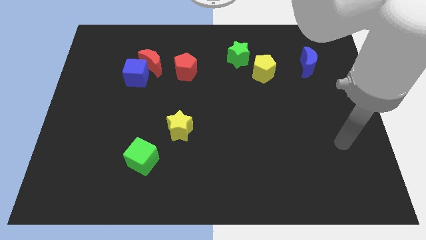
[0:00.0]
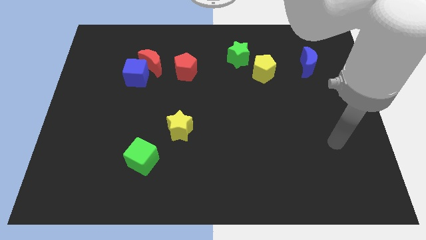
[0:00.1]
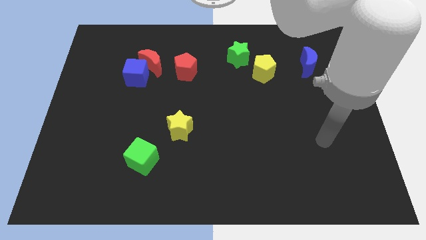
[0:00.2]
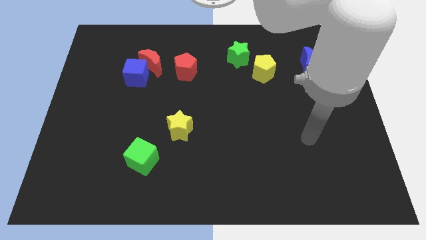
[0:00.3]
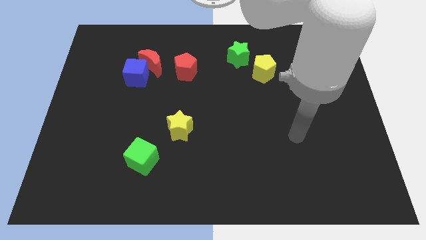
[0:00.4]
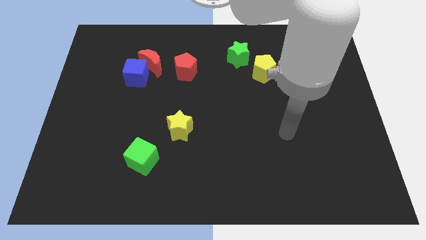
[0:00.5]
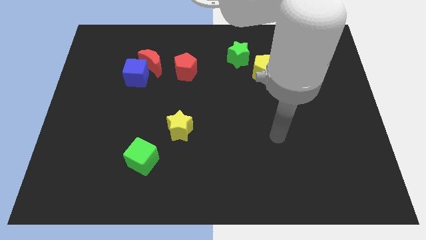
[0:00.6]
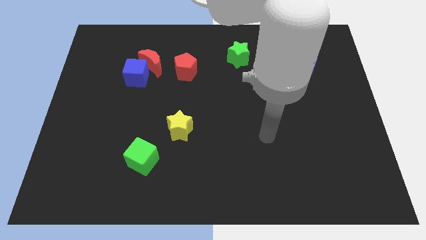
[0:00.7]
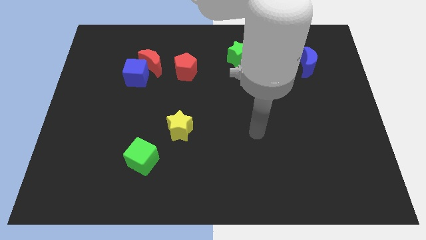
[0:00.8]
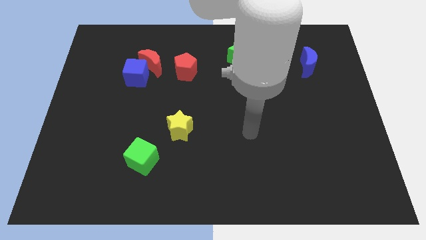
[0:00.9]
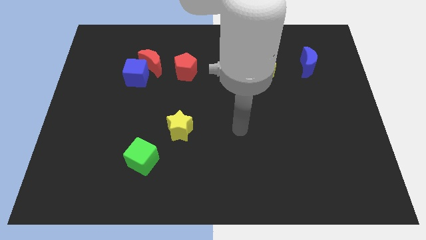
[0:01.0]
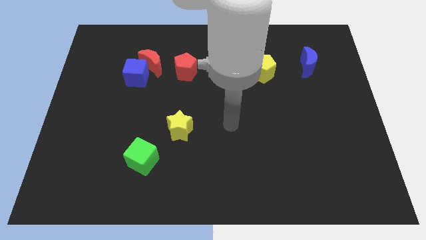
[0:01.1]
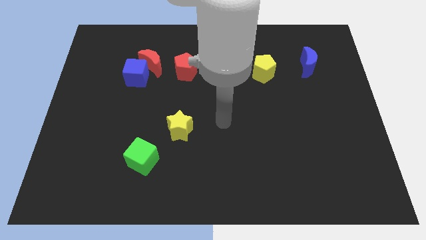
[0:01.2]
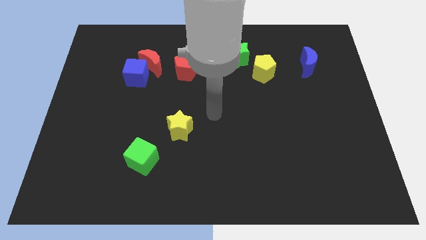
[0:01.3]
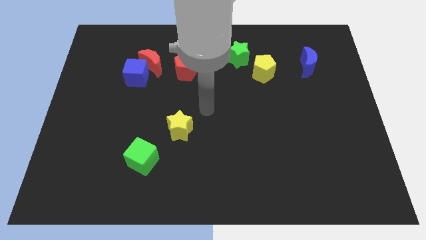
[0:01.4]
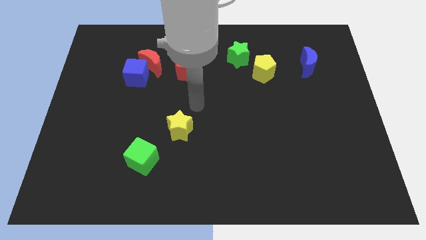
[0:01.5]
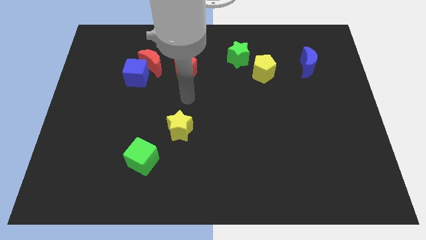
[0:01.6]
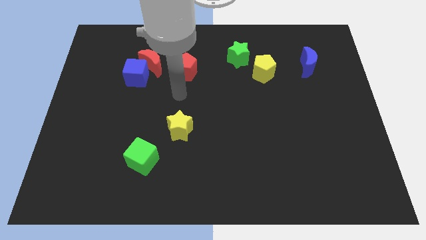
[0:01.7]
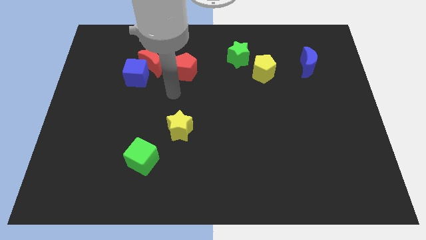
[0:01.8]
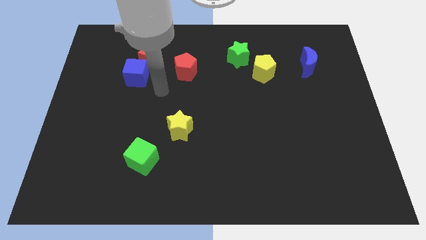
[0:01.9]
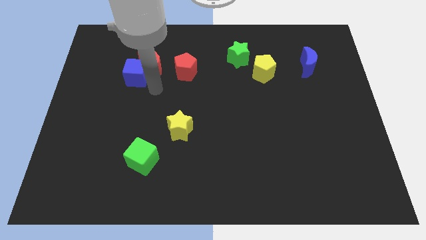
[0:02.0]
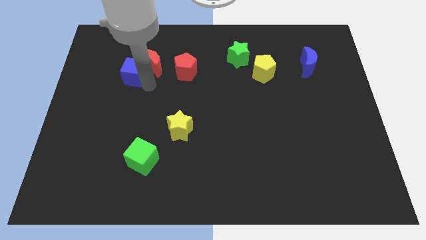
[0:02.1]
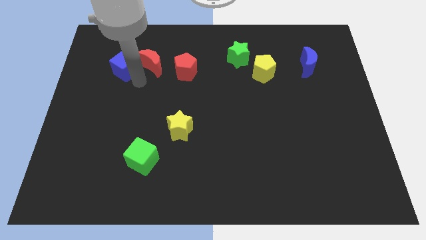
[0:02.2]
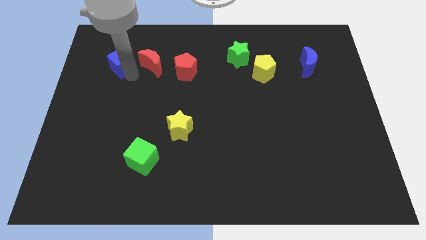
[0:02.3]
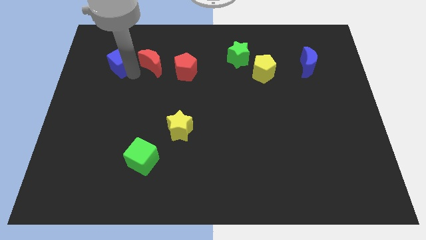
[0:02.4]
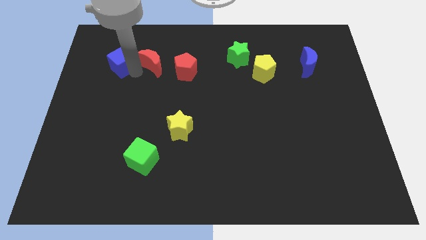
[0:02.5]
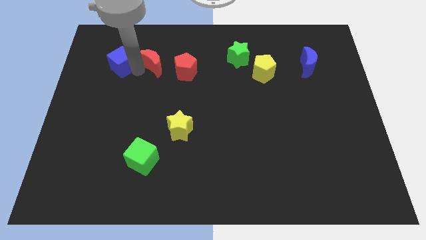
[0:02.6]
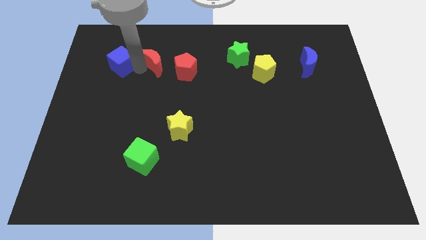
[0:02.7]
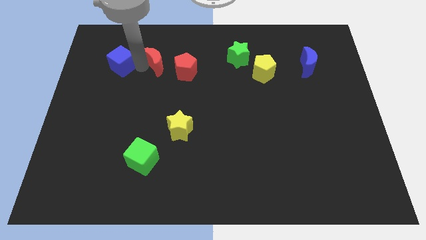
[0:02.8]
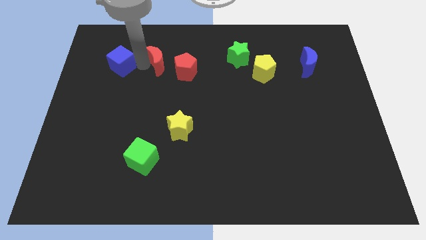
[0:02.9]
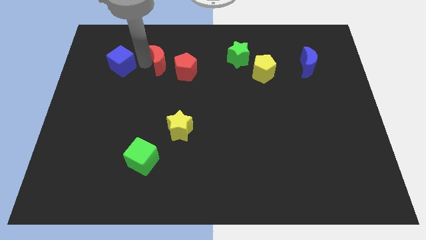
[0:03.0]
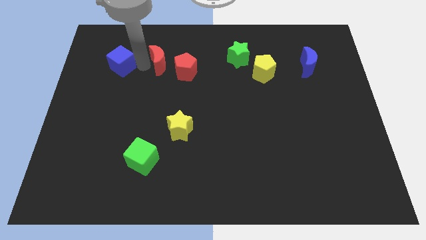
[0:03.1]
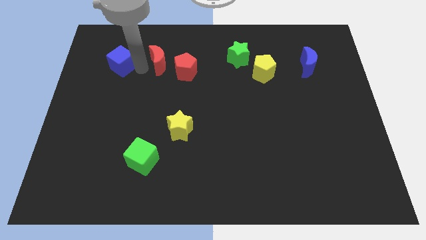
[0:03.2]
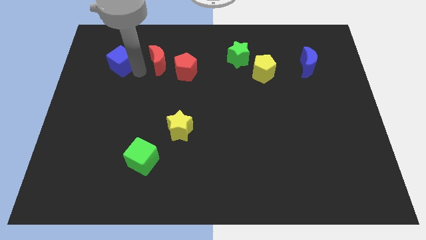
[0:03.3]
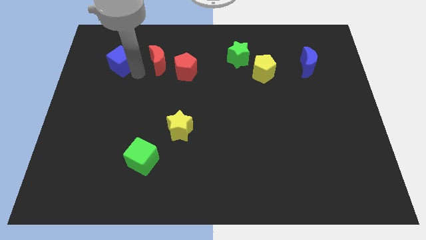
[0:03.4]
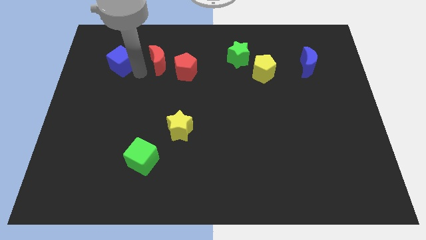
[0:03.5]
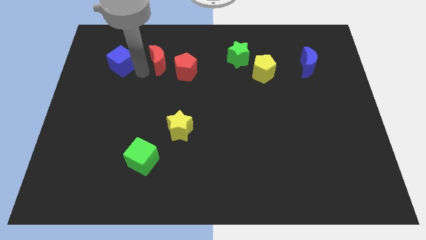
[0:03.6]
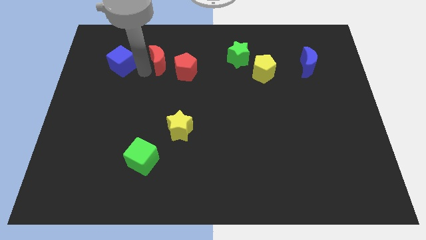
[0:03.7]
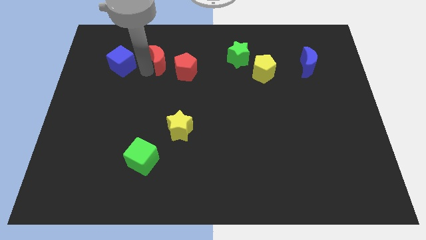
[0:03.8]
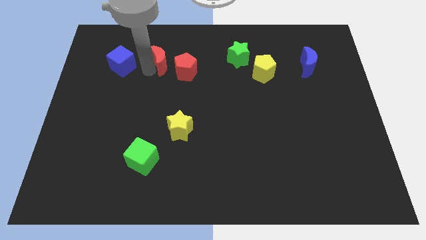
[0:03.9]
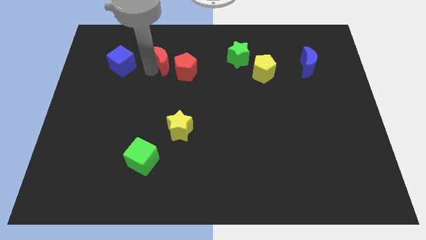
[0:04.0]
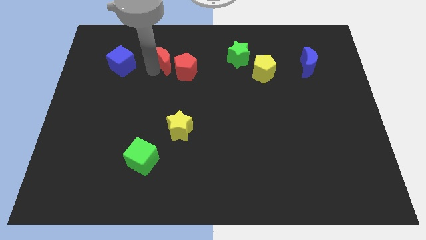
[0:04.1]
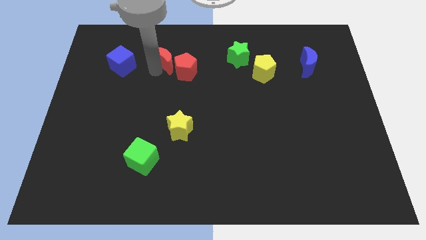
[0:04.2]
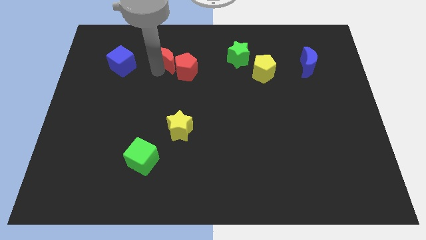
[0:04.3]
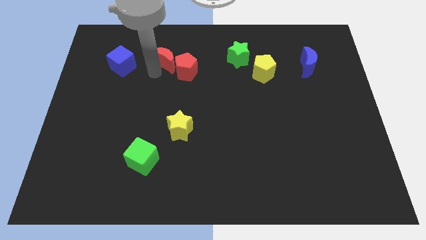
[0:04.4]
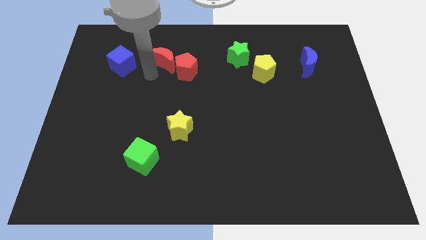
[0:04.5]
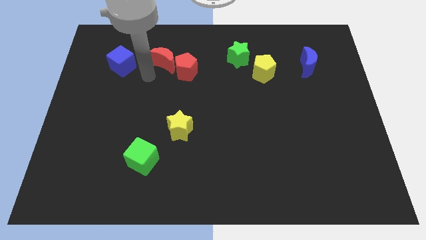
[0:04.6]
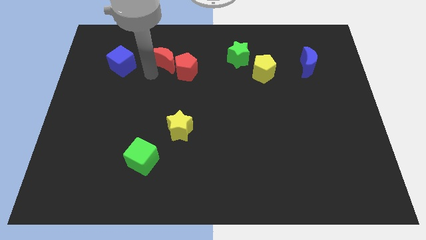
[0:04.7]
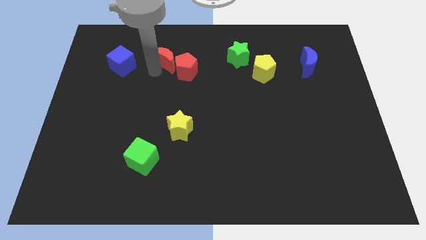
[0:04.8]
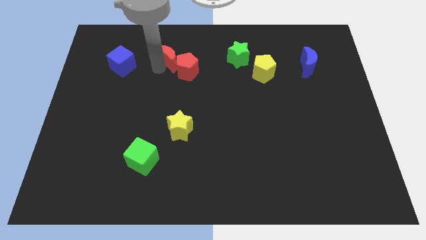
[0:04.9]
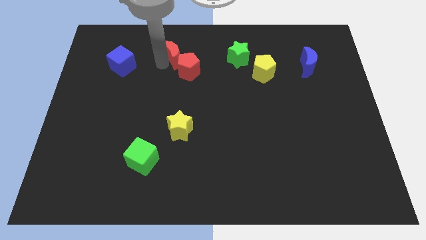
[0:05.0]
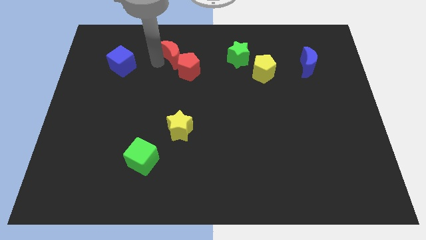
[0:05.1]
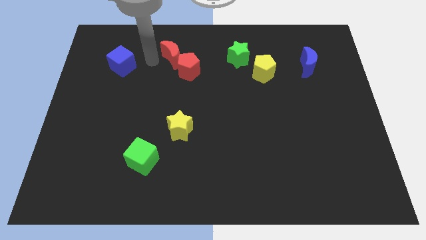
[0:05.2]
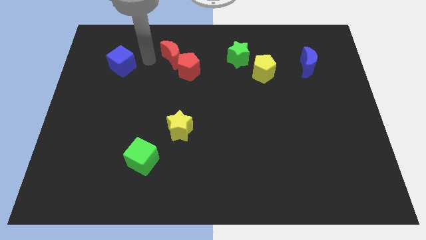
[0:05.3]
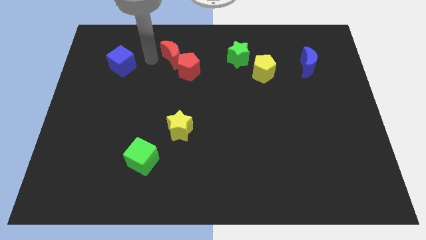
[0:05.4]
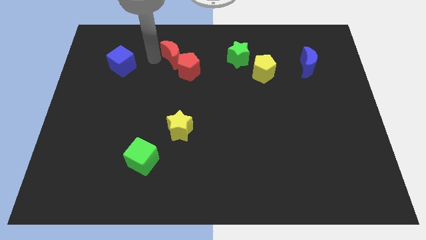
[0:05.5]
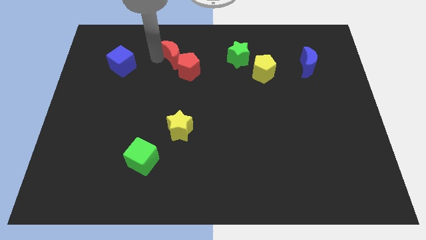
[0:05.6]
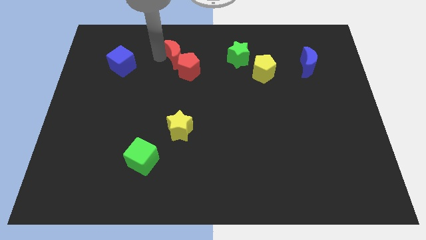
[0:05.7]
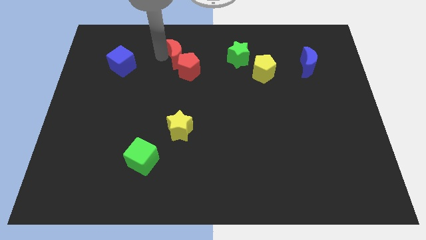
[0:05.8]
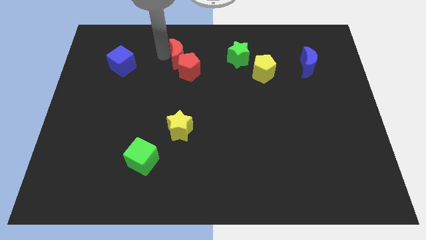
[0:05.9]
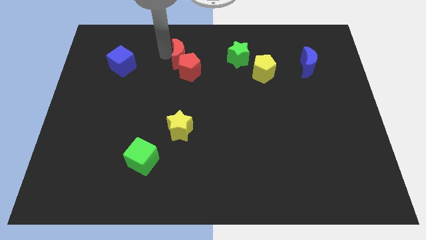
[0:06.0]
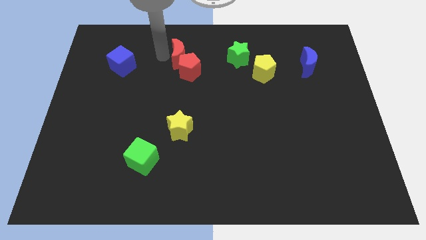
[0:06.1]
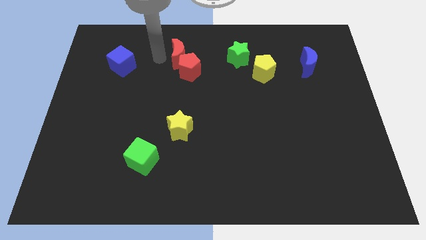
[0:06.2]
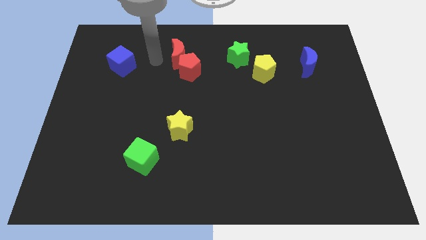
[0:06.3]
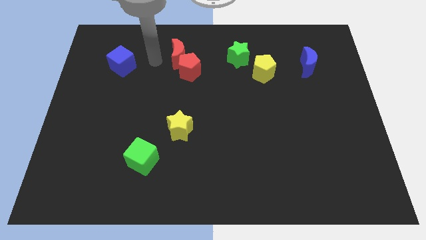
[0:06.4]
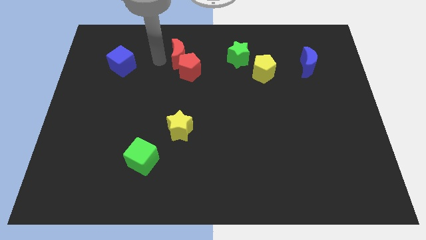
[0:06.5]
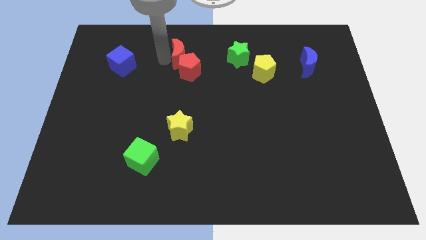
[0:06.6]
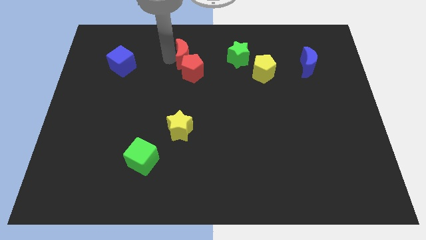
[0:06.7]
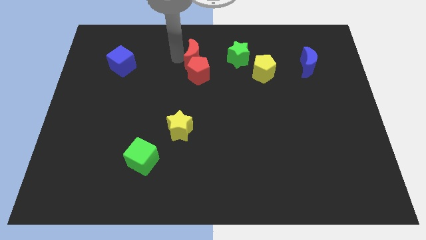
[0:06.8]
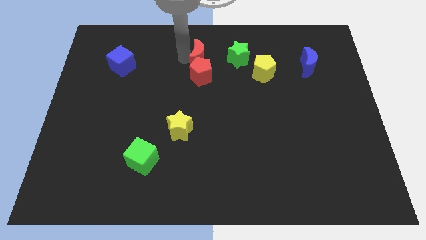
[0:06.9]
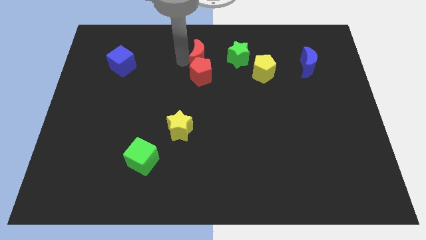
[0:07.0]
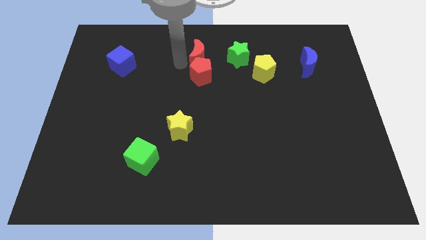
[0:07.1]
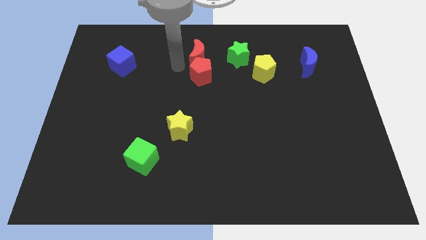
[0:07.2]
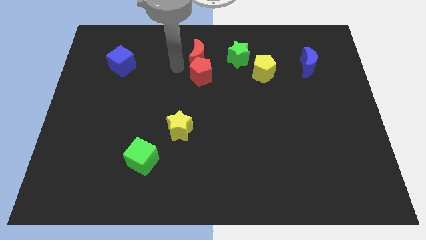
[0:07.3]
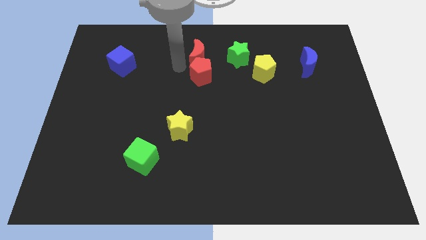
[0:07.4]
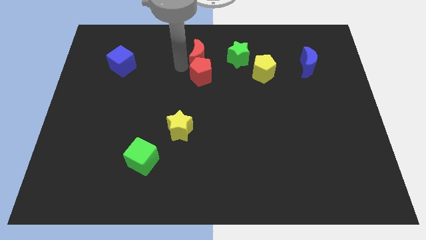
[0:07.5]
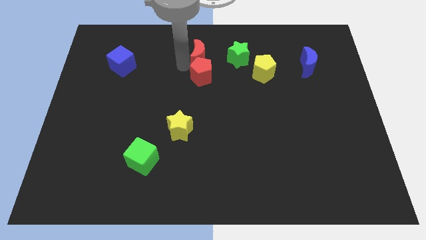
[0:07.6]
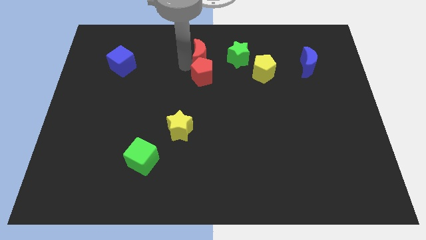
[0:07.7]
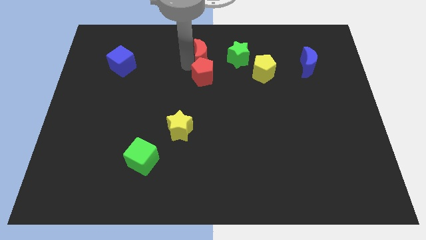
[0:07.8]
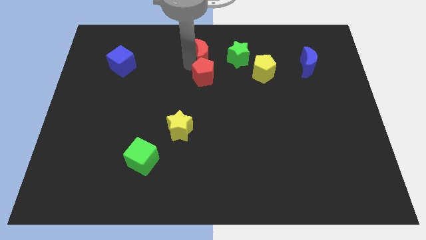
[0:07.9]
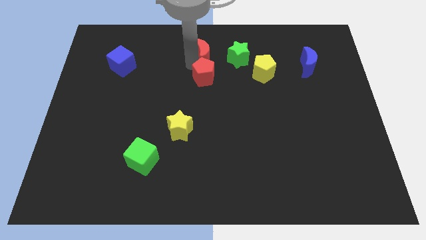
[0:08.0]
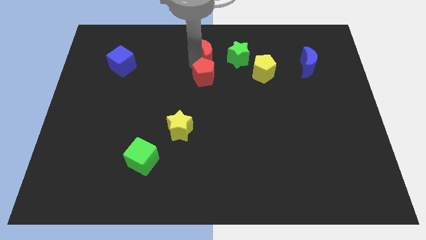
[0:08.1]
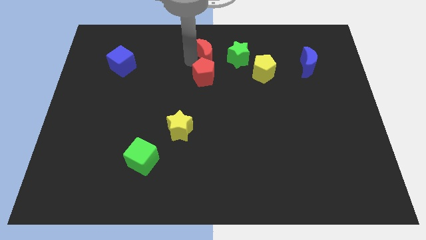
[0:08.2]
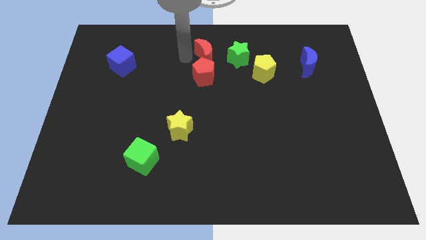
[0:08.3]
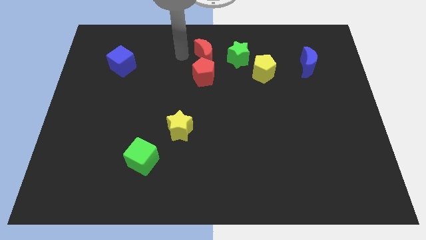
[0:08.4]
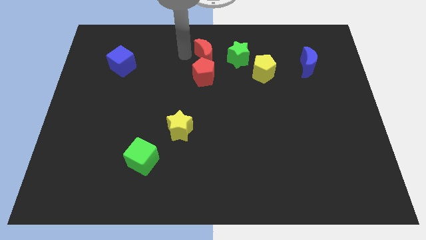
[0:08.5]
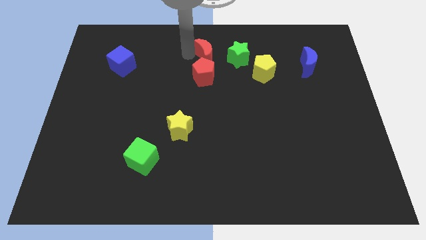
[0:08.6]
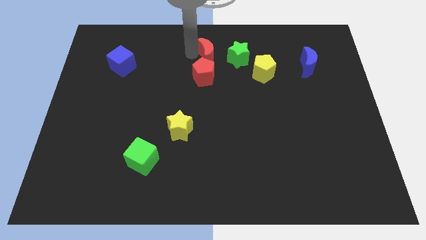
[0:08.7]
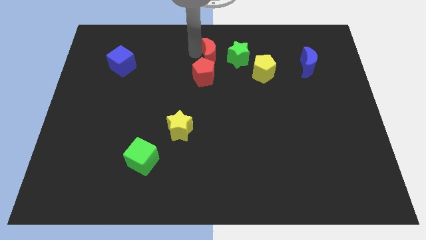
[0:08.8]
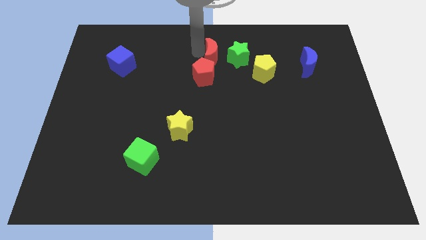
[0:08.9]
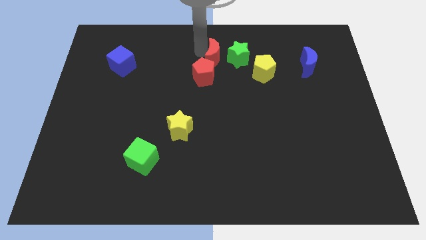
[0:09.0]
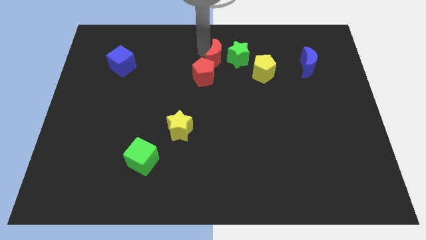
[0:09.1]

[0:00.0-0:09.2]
put the red moon next to the green star
